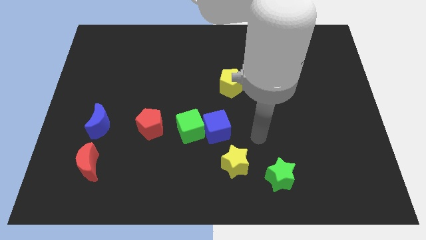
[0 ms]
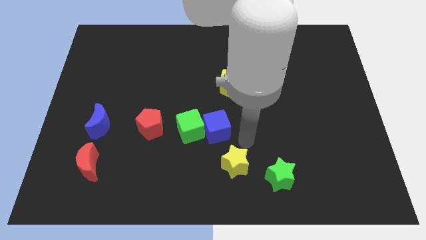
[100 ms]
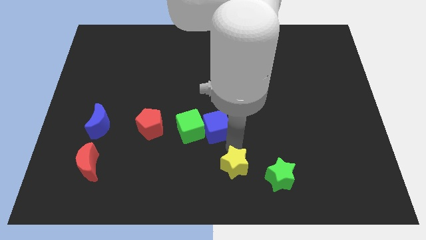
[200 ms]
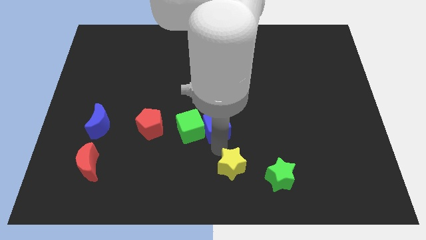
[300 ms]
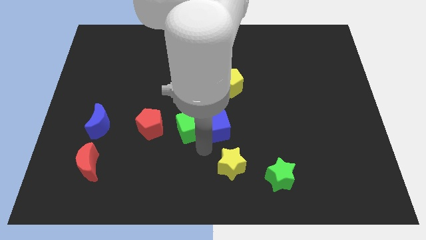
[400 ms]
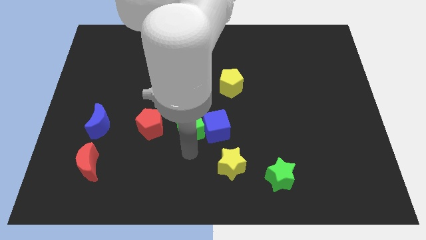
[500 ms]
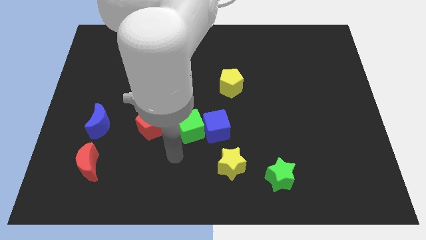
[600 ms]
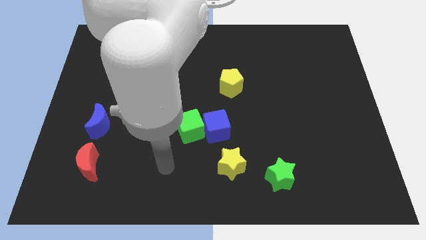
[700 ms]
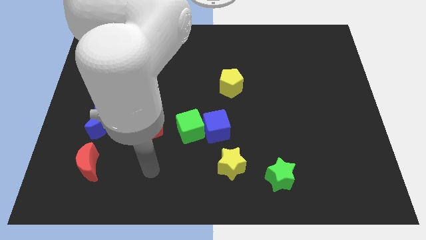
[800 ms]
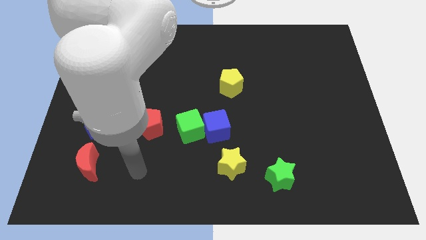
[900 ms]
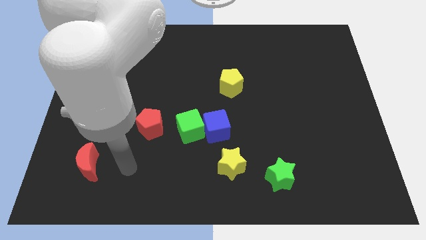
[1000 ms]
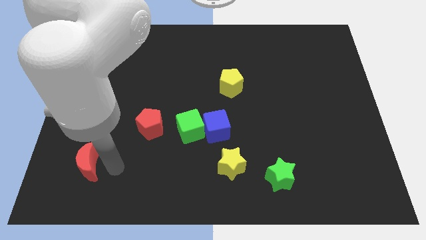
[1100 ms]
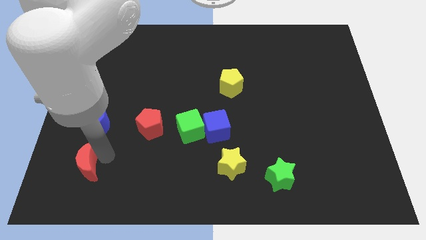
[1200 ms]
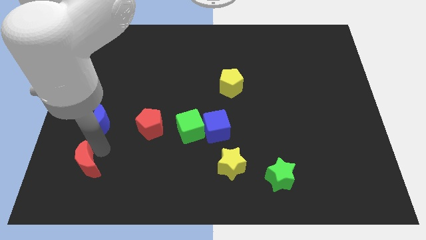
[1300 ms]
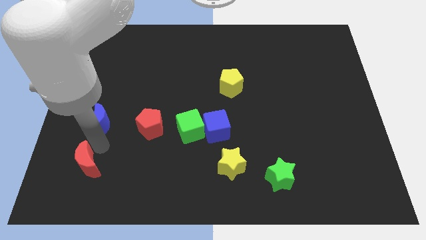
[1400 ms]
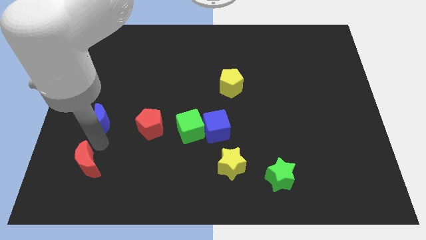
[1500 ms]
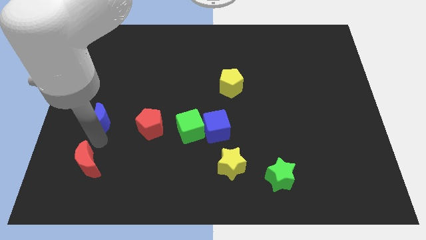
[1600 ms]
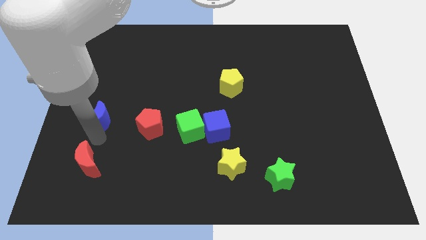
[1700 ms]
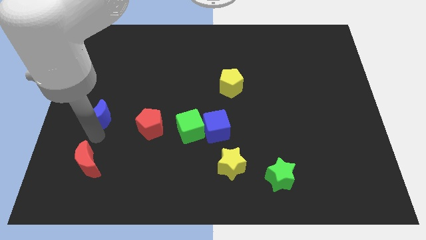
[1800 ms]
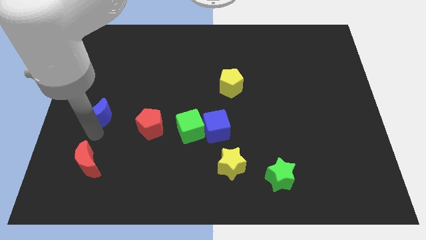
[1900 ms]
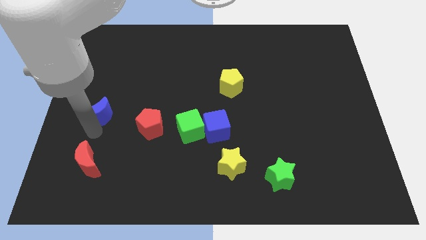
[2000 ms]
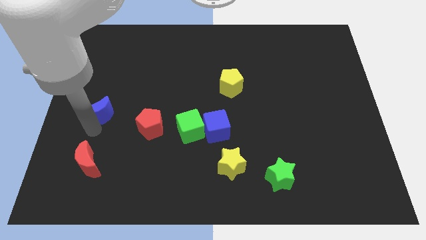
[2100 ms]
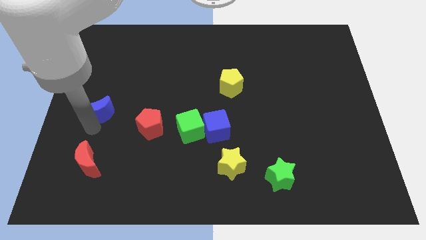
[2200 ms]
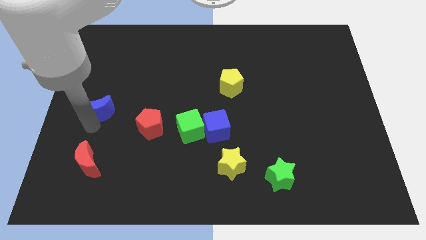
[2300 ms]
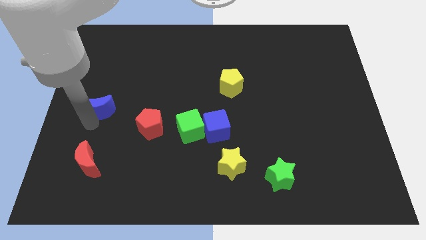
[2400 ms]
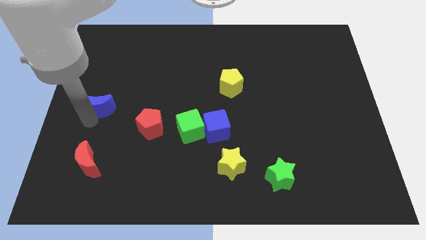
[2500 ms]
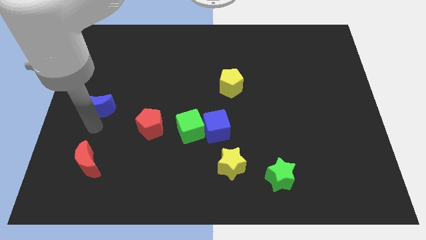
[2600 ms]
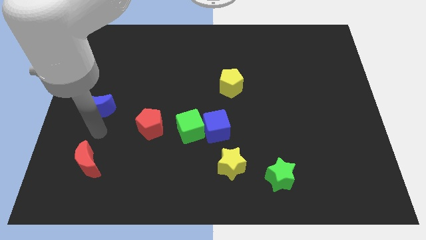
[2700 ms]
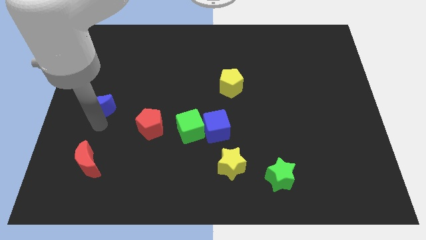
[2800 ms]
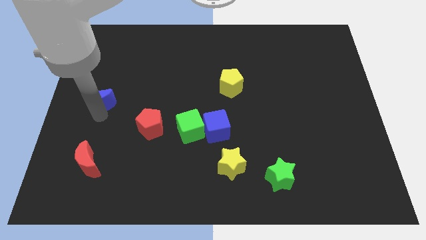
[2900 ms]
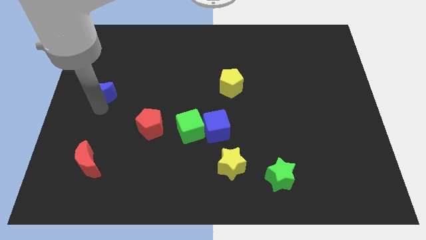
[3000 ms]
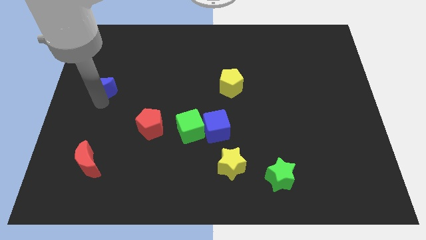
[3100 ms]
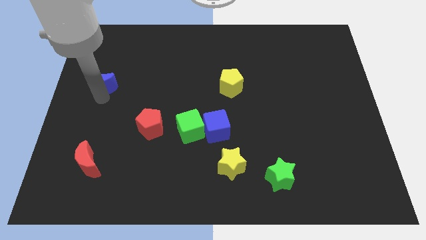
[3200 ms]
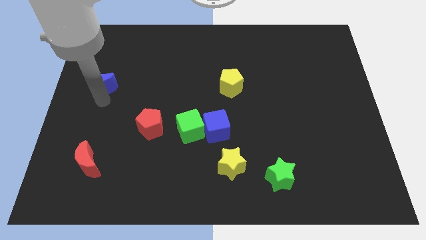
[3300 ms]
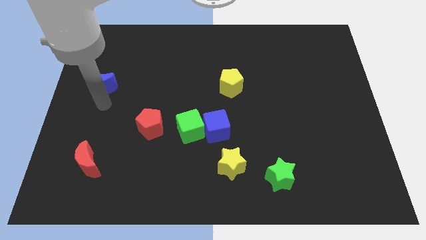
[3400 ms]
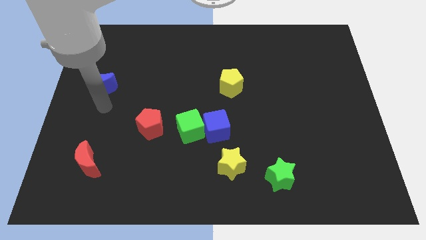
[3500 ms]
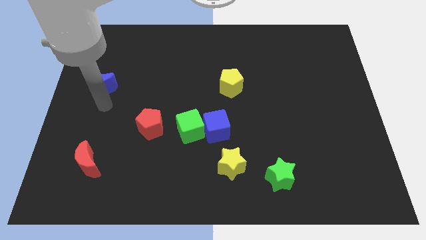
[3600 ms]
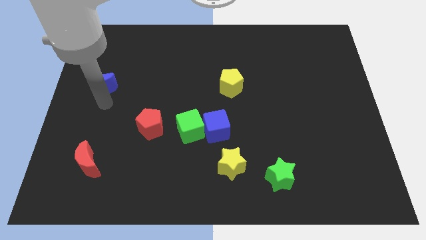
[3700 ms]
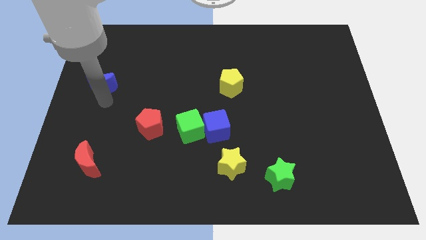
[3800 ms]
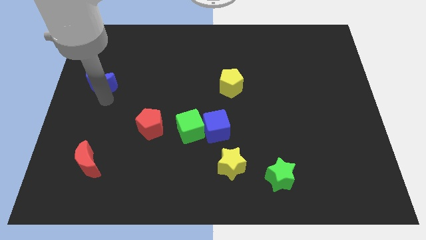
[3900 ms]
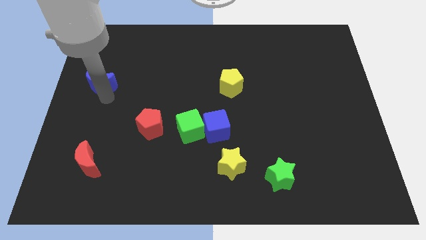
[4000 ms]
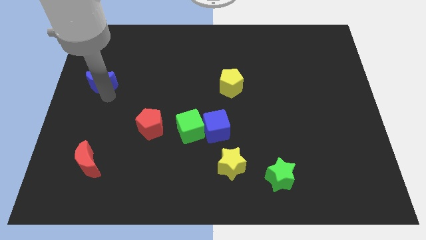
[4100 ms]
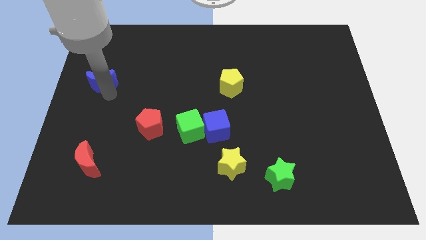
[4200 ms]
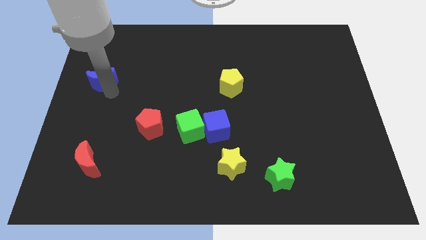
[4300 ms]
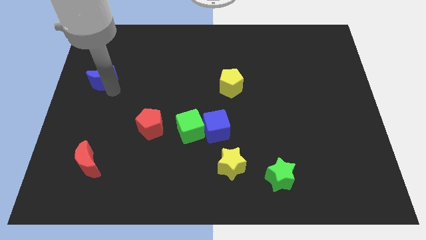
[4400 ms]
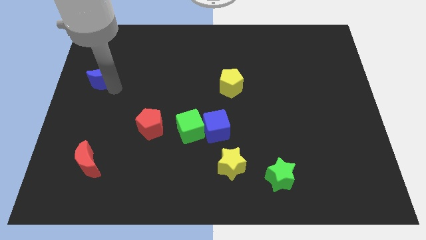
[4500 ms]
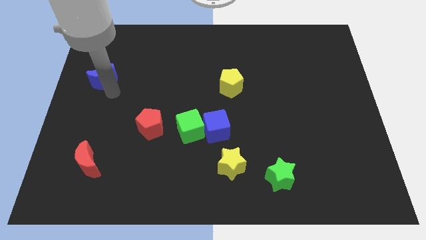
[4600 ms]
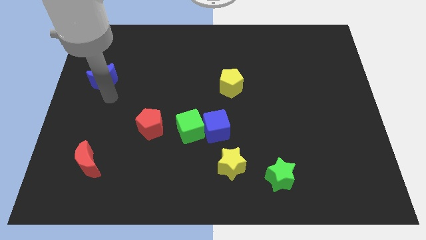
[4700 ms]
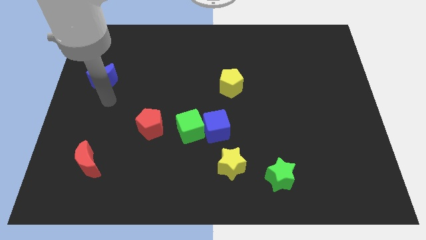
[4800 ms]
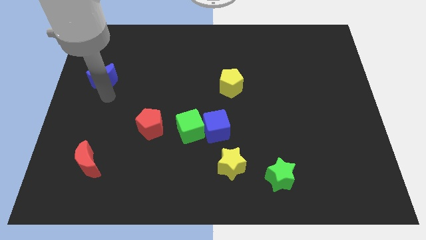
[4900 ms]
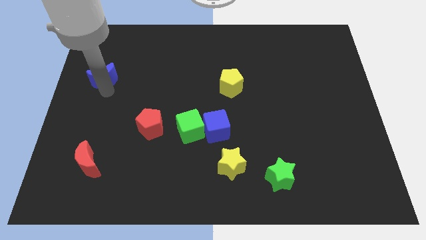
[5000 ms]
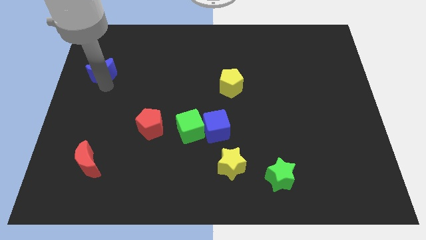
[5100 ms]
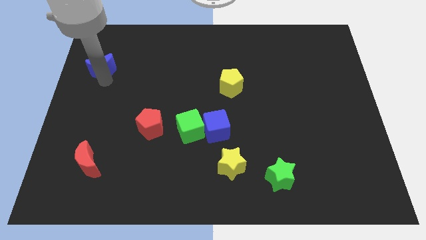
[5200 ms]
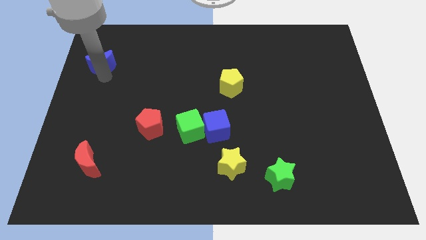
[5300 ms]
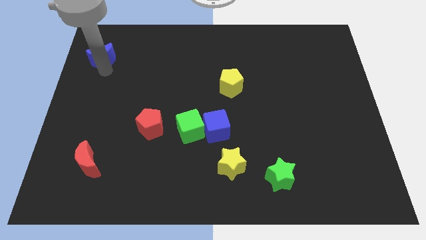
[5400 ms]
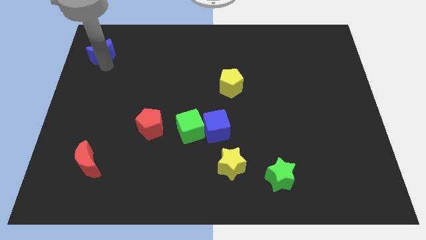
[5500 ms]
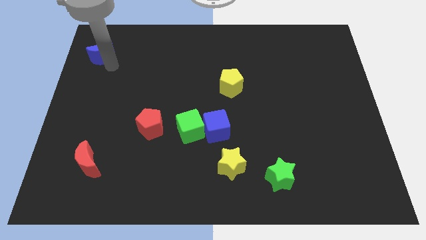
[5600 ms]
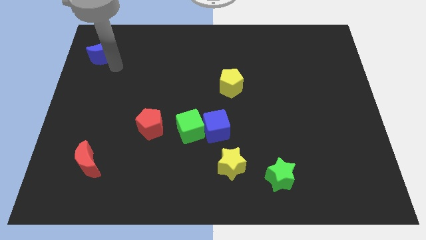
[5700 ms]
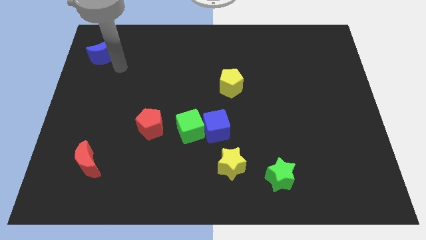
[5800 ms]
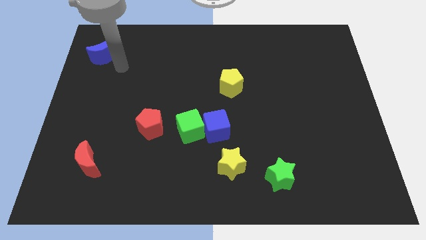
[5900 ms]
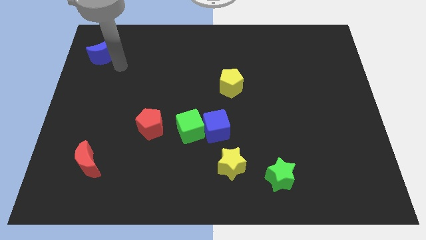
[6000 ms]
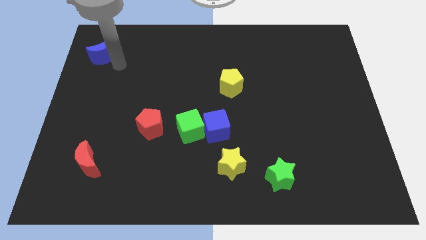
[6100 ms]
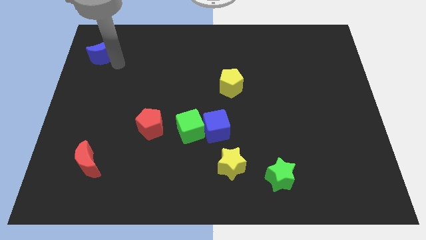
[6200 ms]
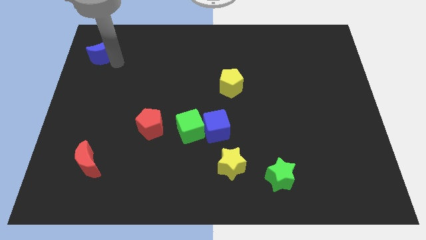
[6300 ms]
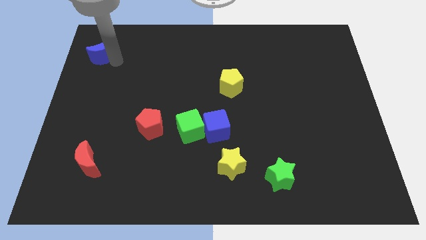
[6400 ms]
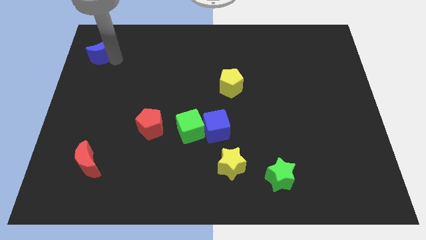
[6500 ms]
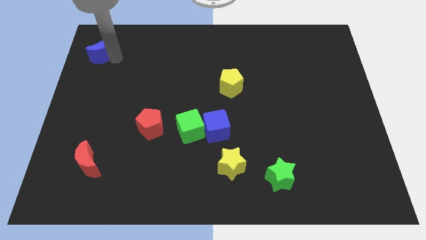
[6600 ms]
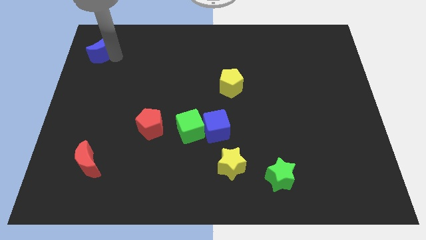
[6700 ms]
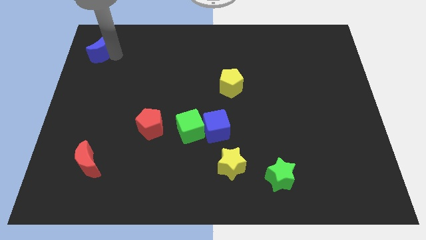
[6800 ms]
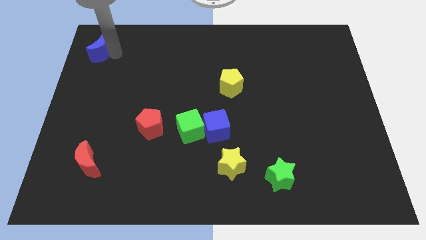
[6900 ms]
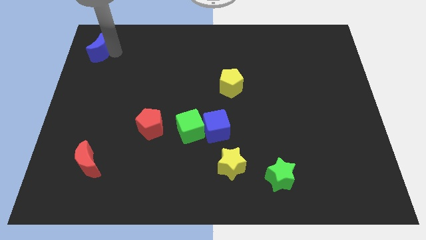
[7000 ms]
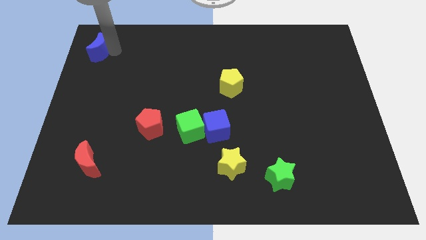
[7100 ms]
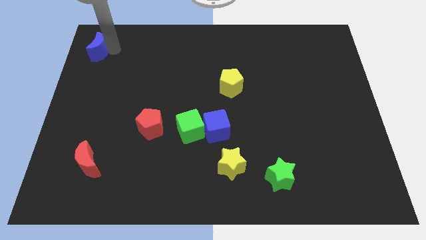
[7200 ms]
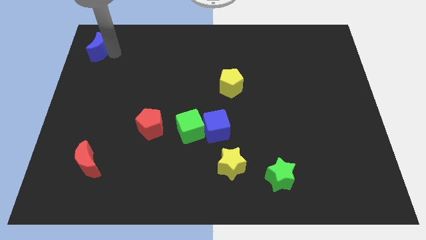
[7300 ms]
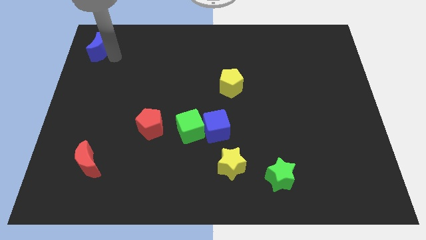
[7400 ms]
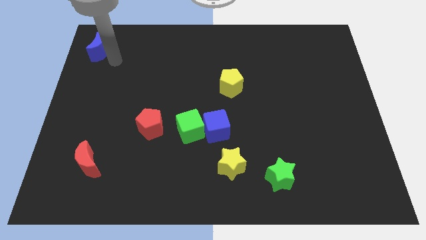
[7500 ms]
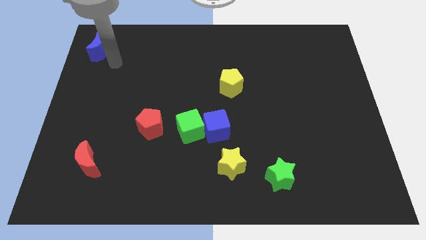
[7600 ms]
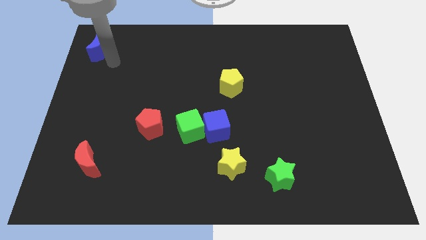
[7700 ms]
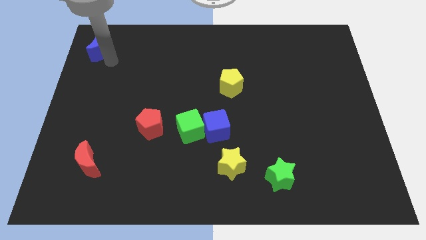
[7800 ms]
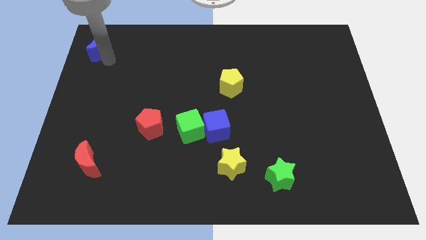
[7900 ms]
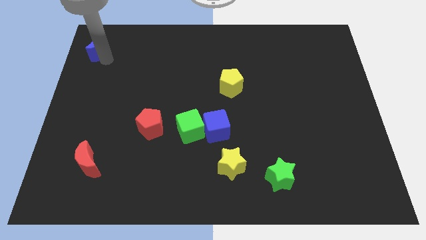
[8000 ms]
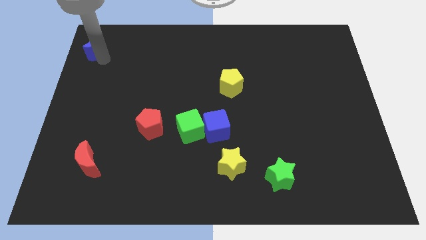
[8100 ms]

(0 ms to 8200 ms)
push the blue moon to the upper left corner
